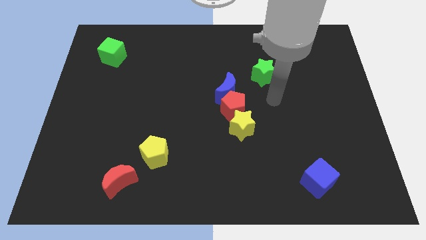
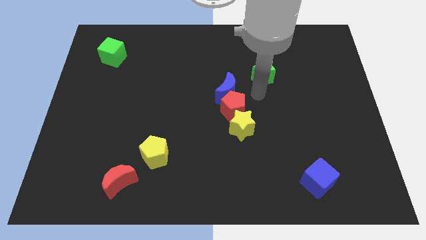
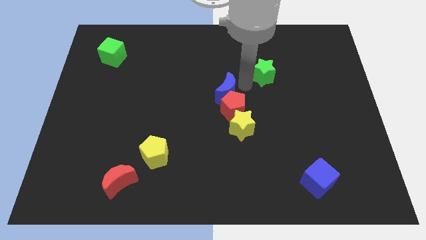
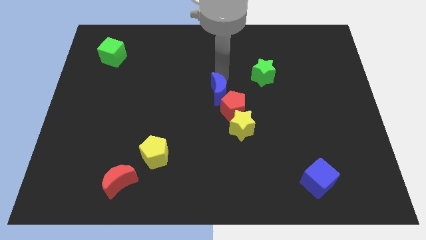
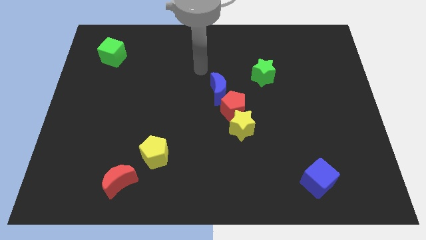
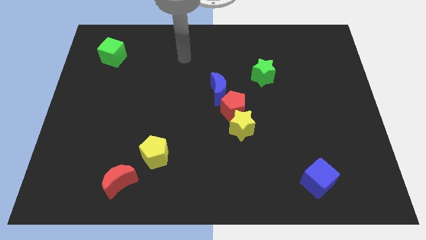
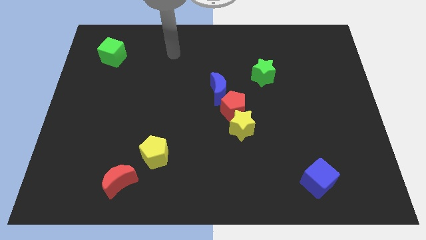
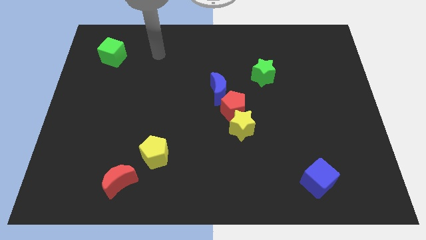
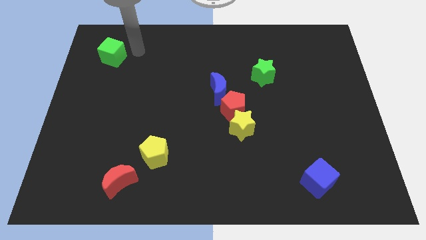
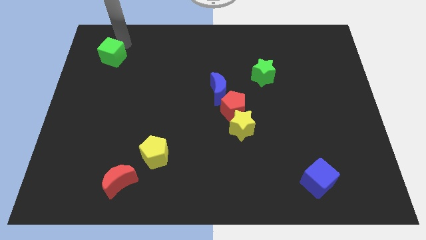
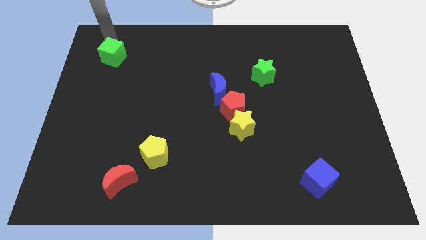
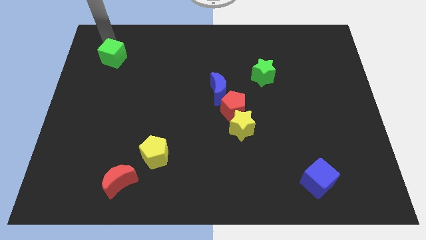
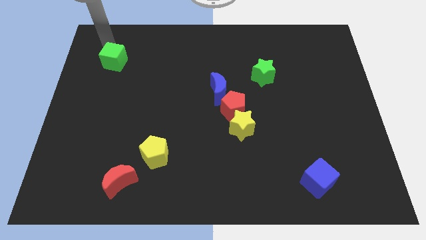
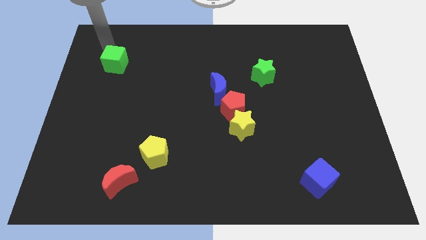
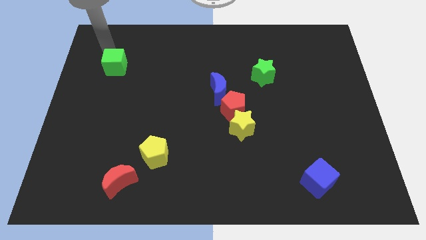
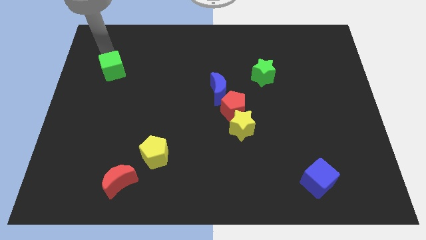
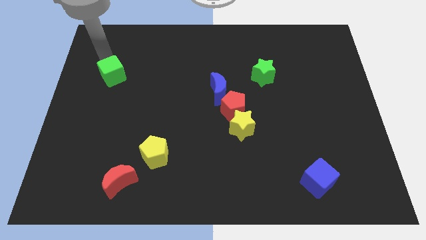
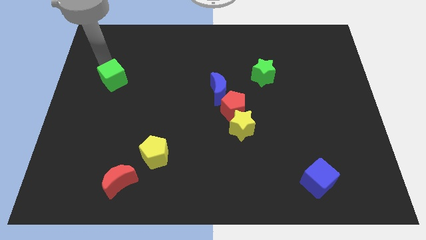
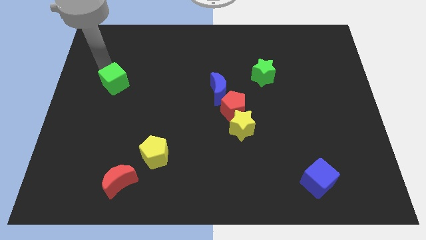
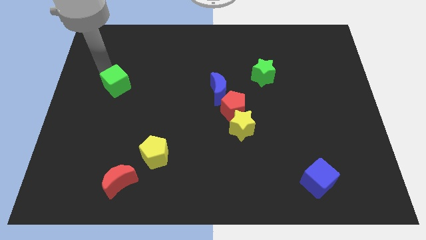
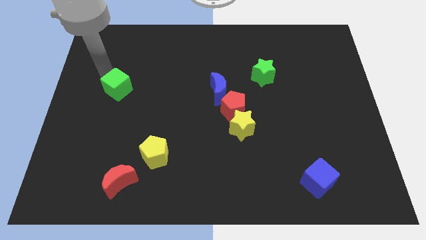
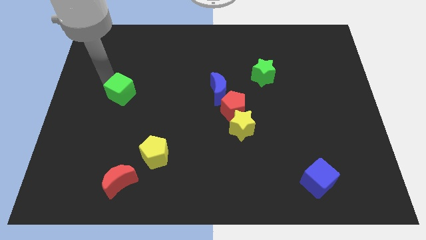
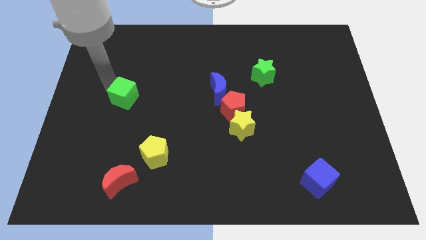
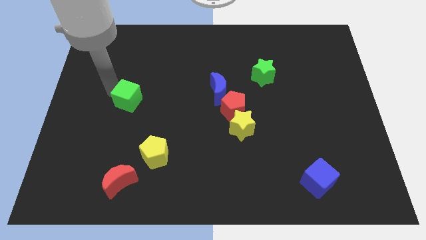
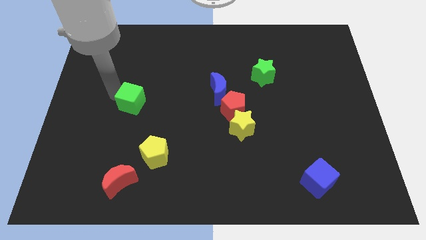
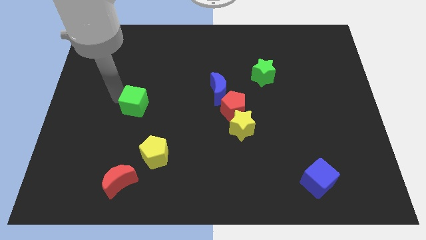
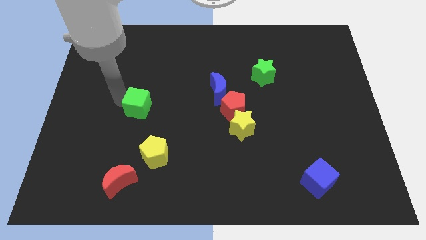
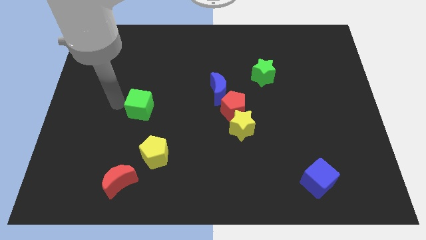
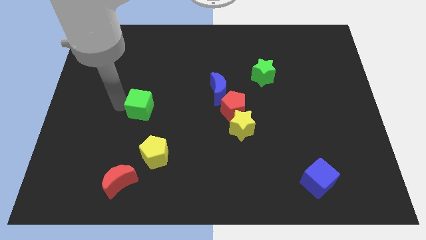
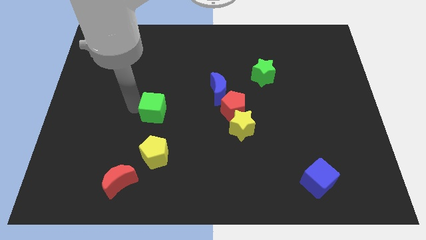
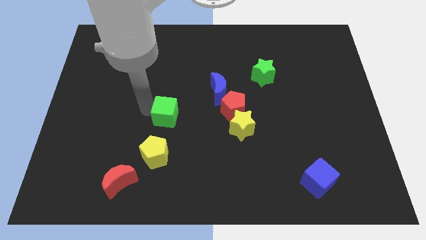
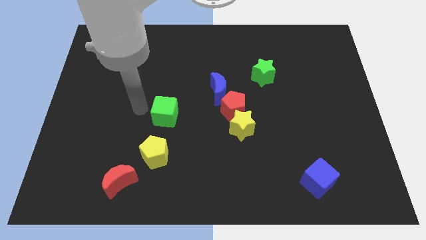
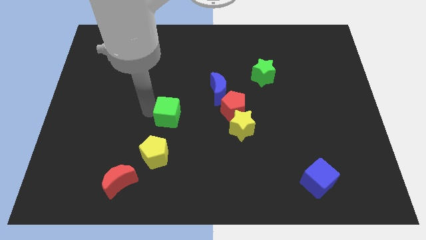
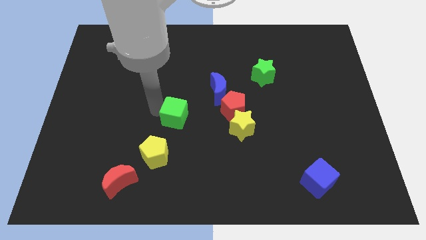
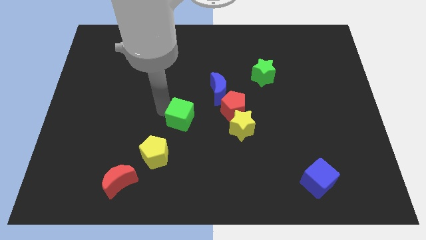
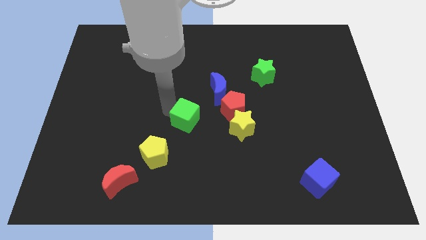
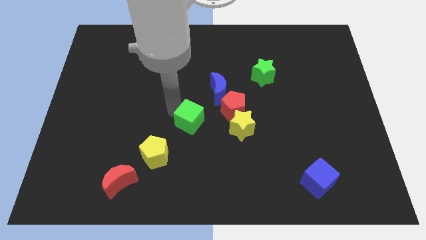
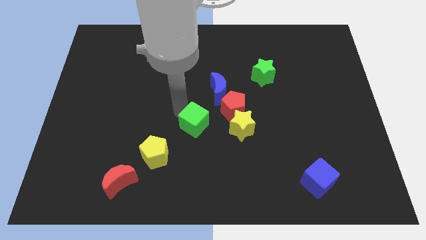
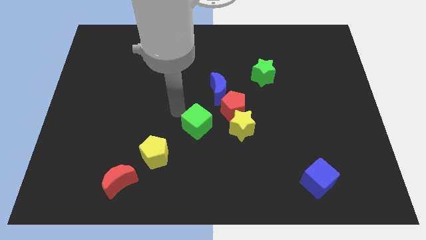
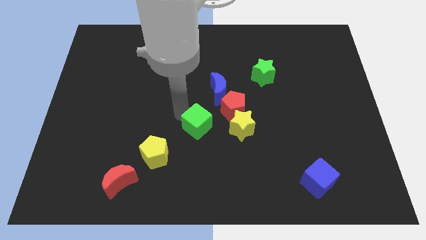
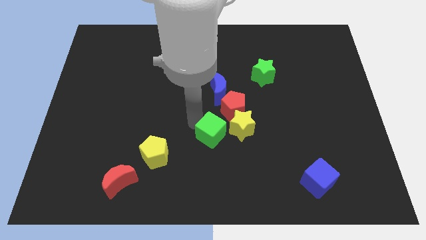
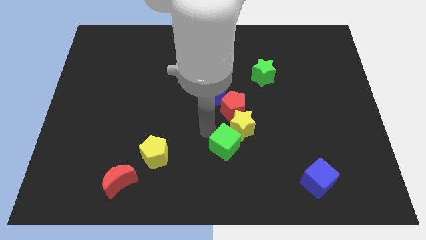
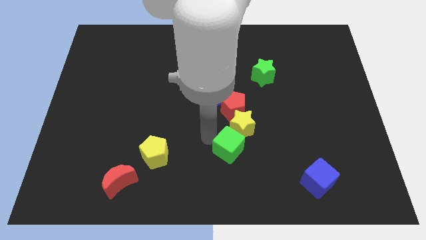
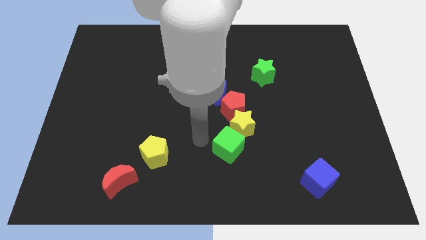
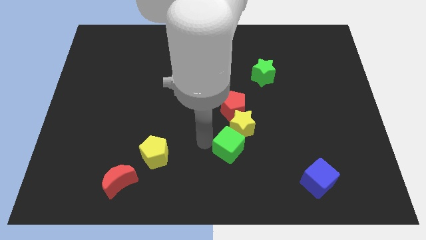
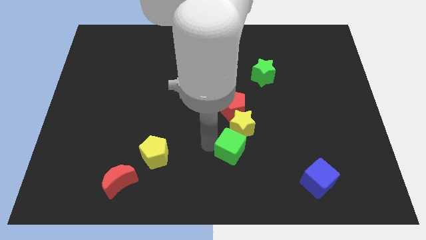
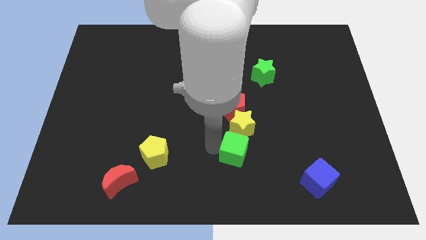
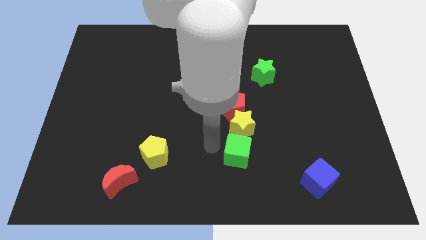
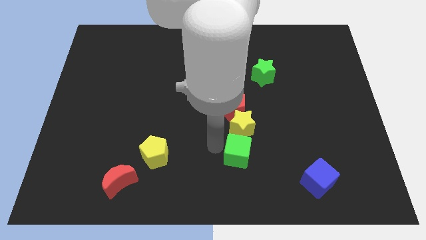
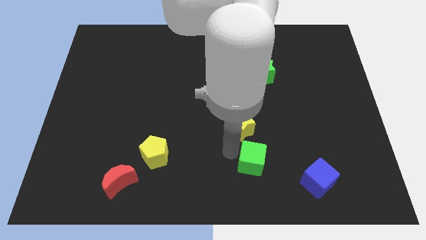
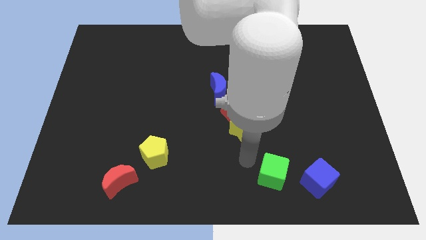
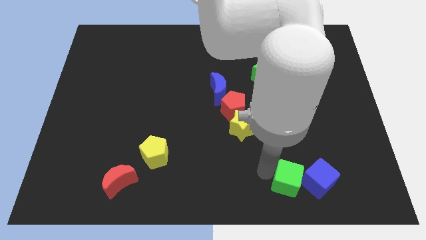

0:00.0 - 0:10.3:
push the green cube towards the blue cube

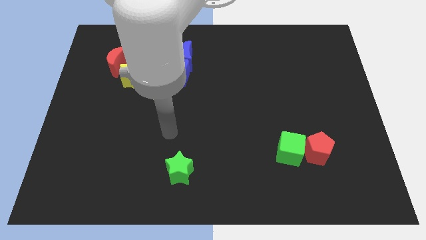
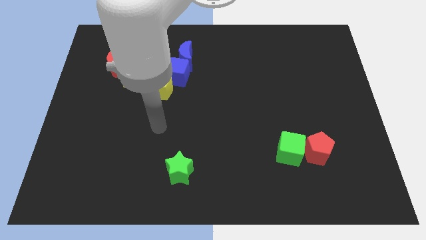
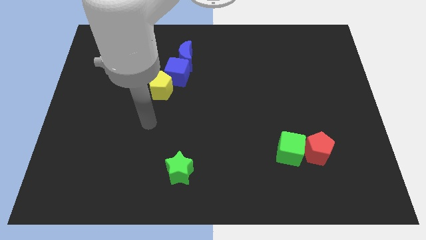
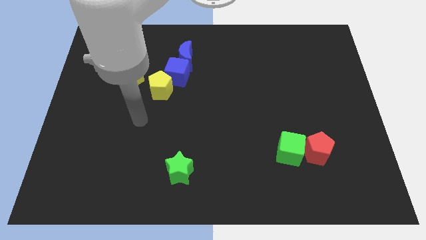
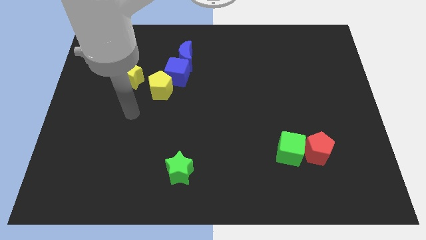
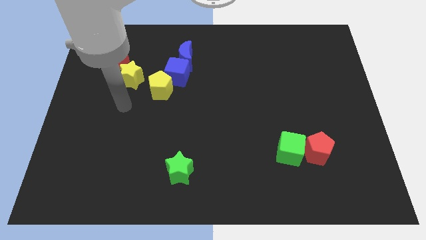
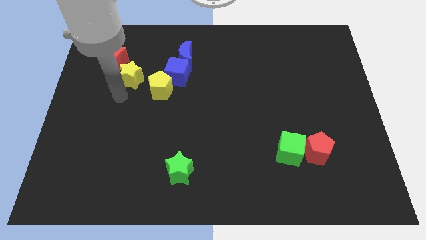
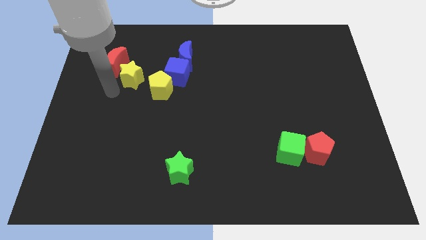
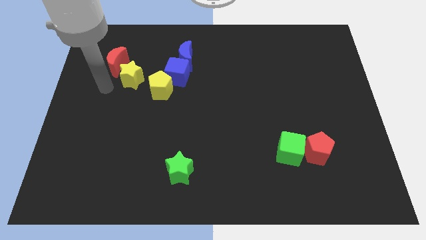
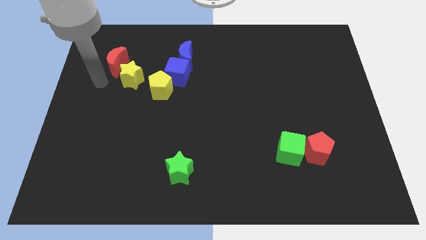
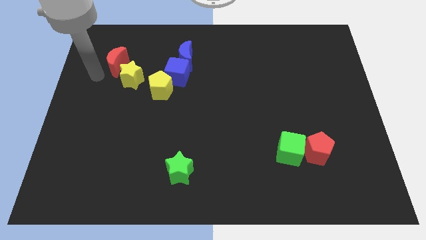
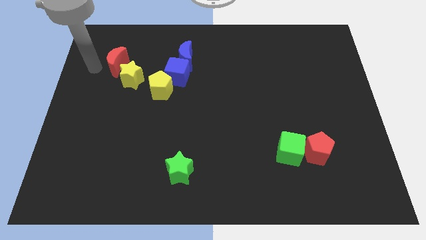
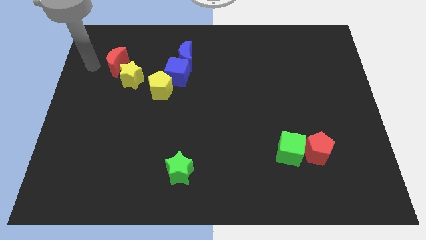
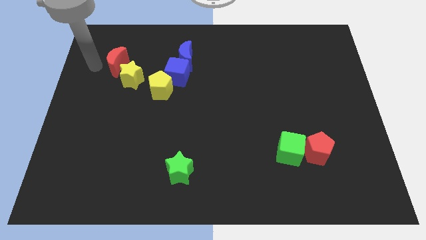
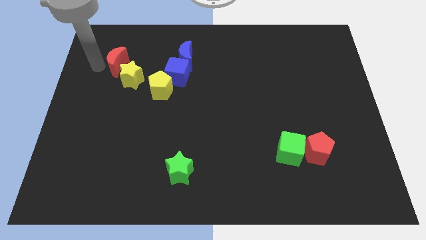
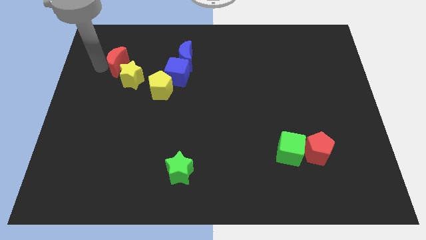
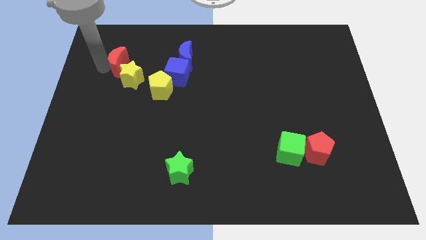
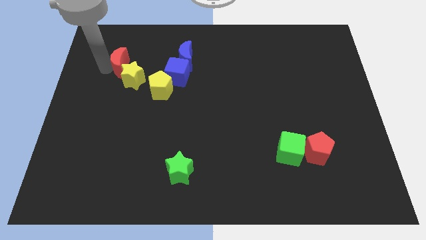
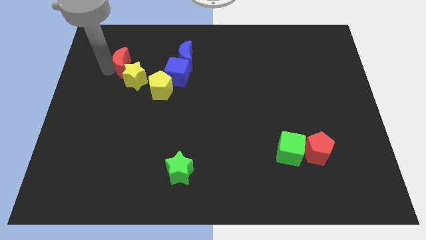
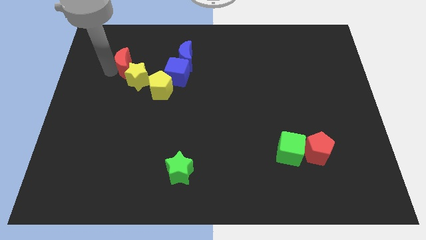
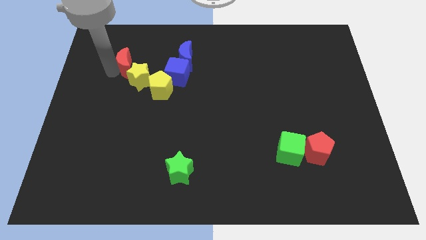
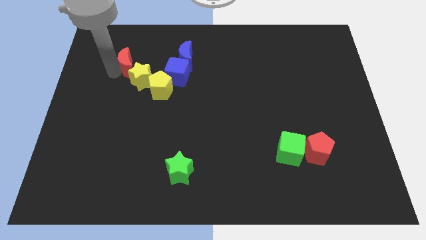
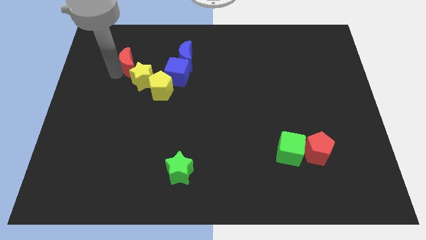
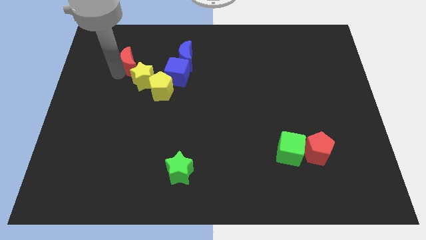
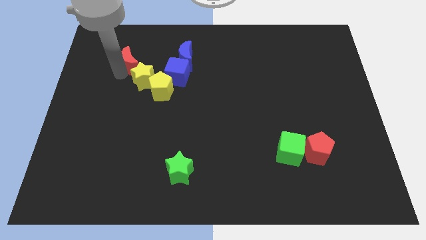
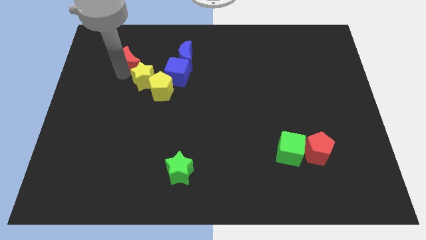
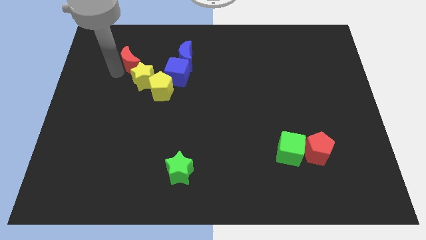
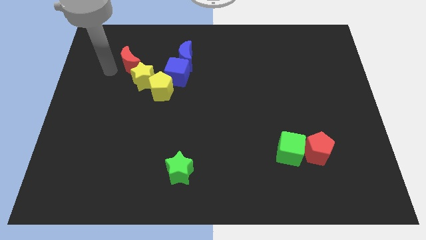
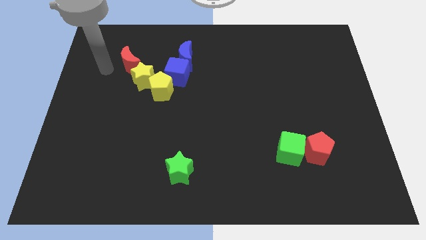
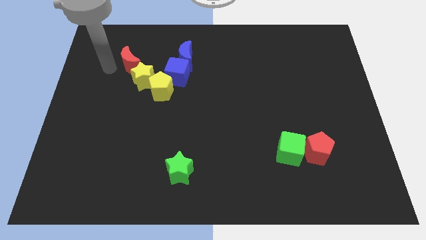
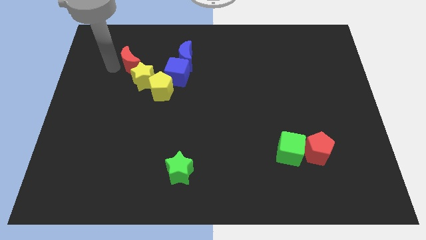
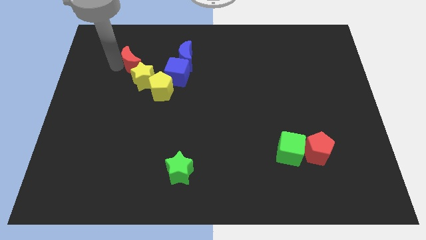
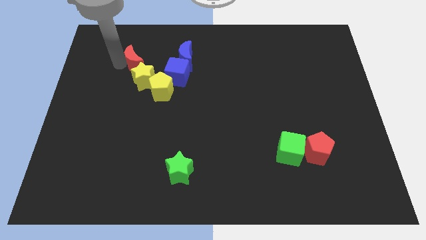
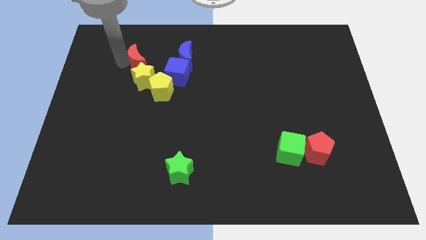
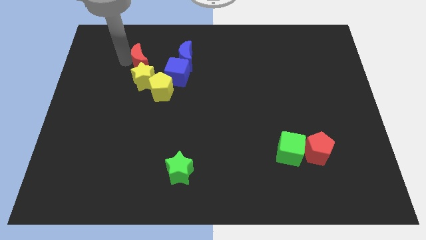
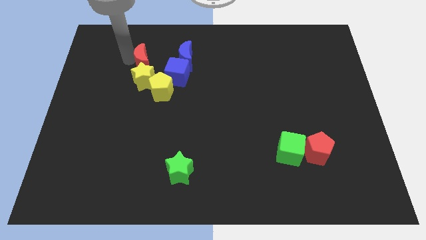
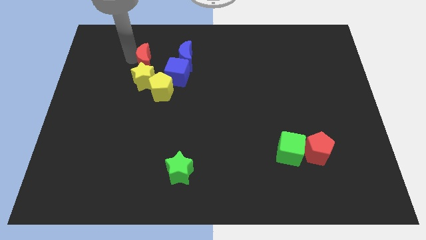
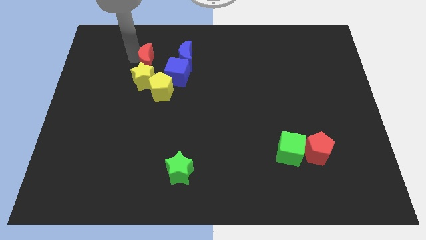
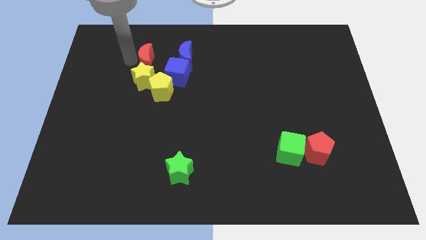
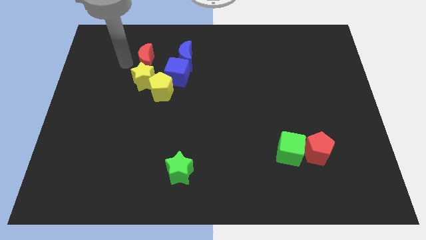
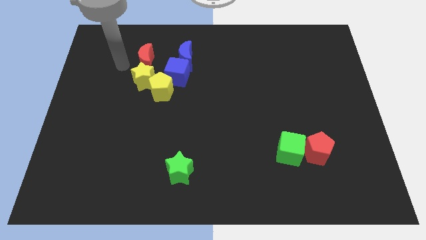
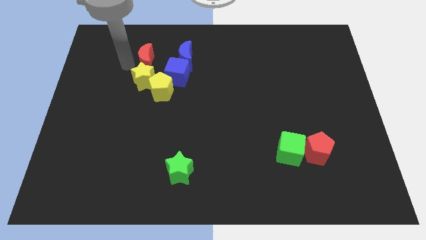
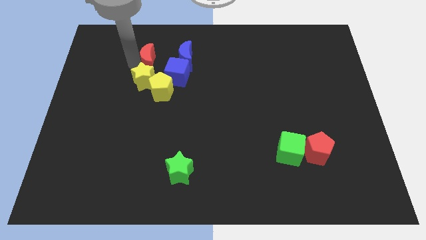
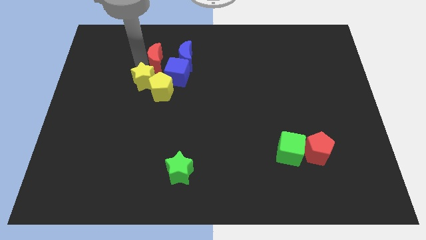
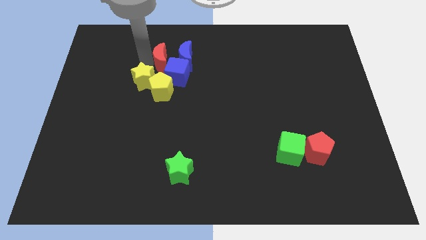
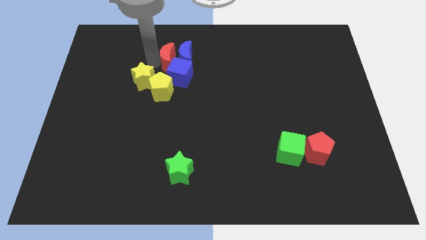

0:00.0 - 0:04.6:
put the red moon towards the blue moon
